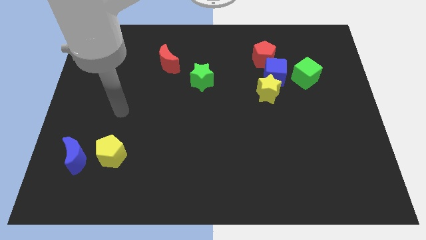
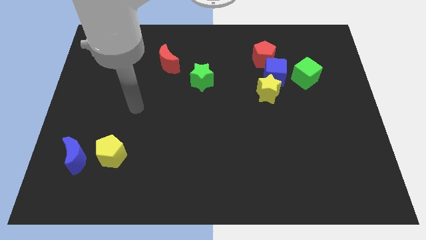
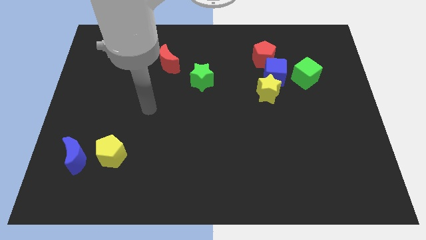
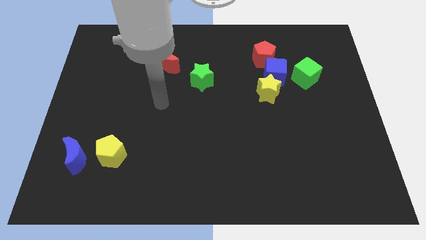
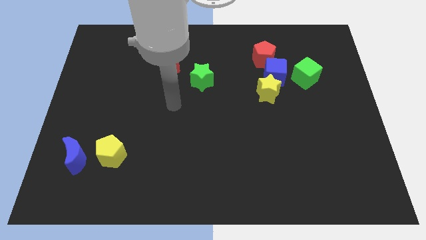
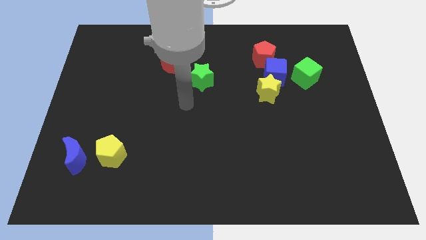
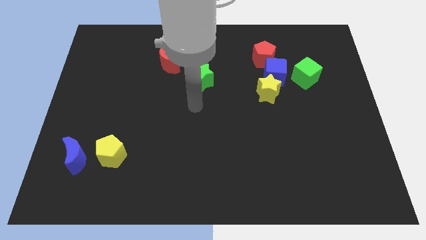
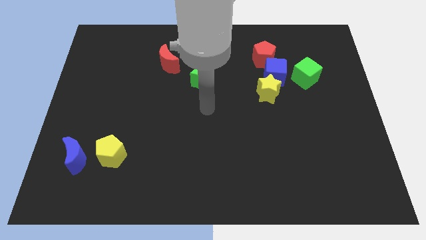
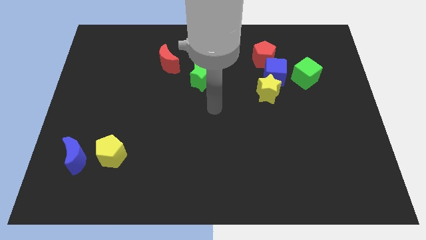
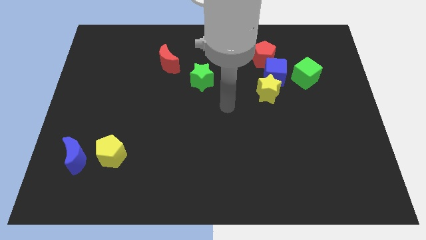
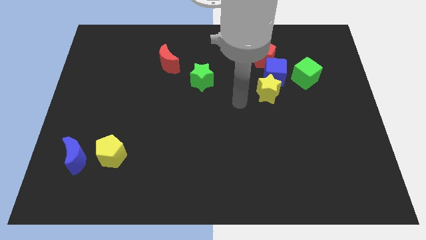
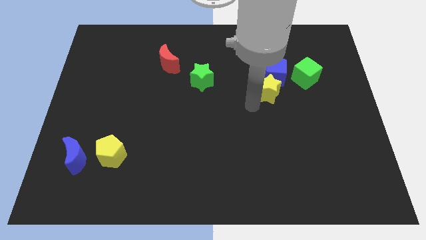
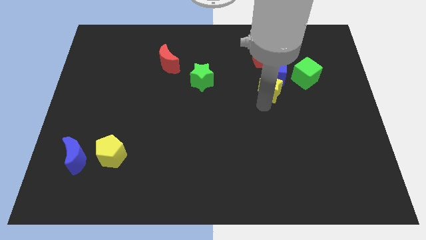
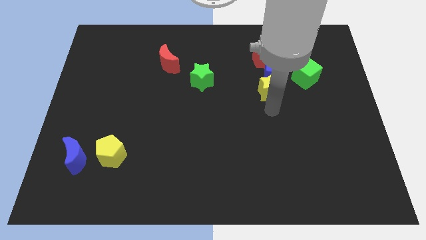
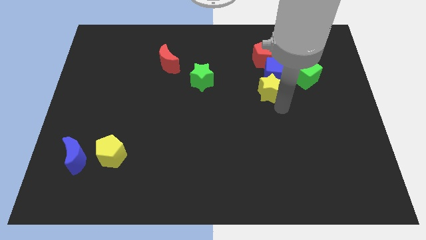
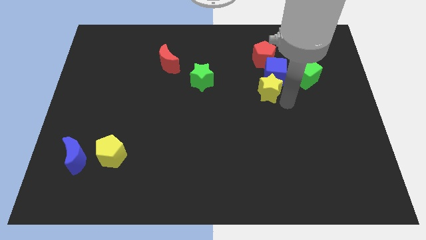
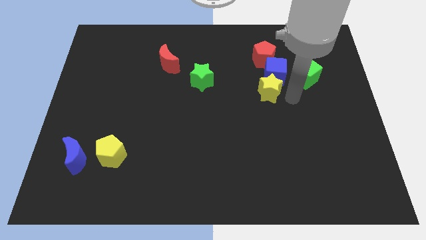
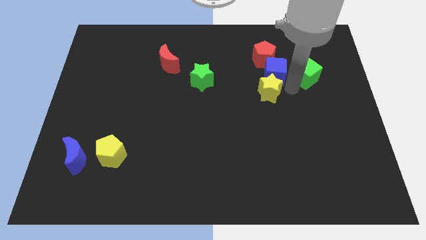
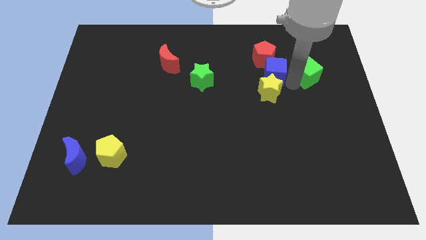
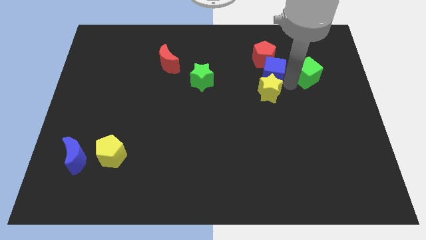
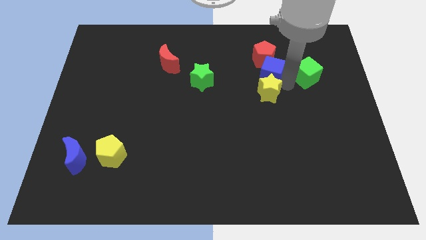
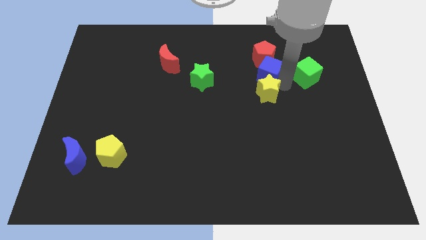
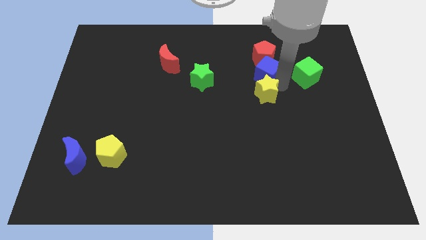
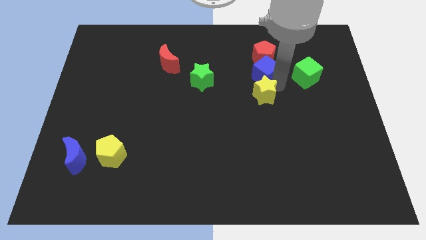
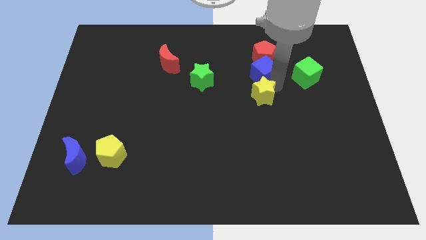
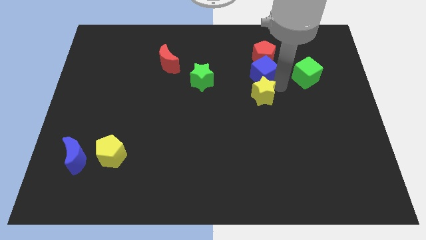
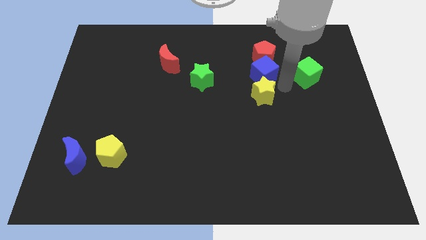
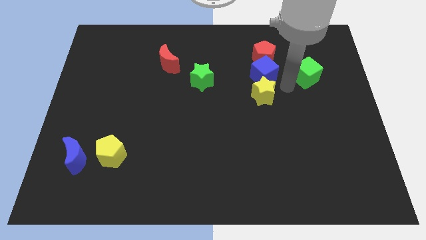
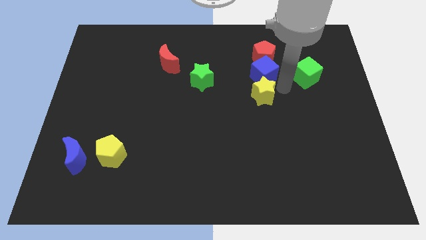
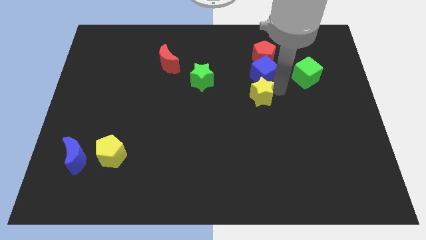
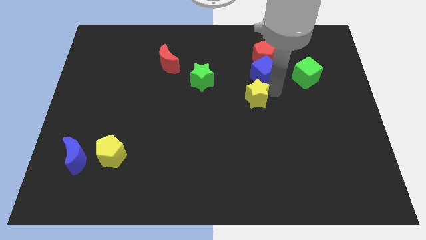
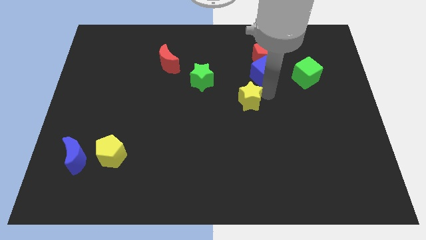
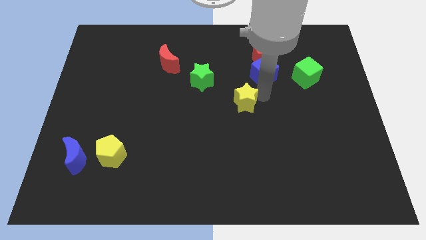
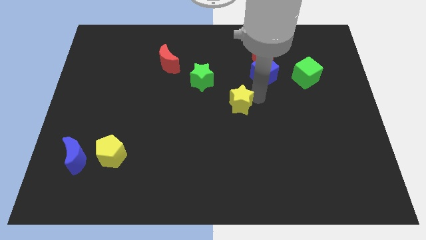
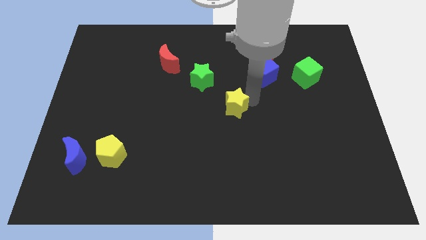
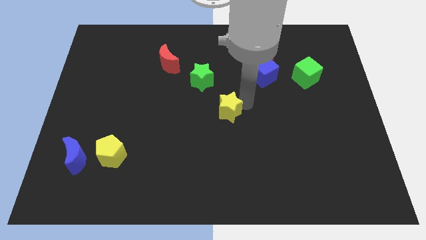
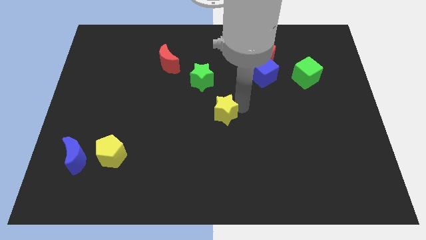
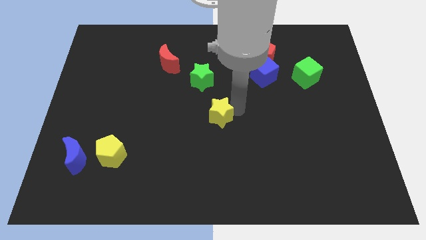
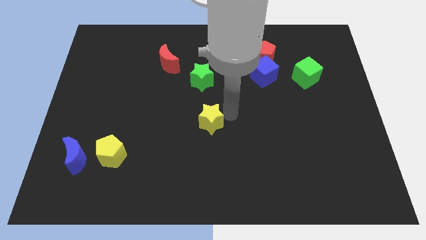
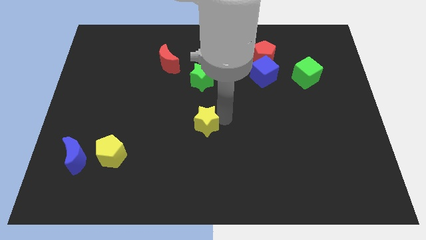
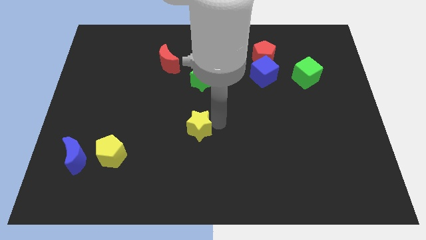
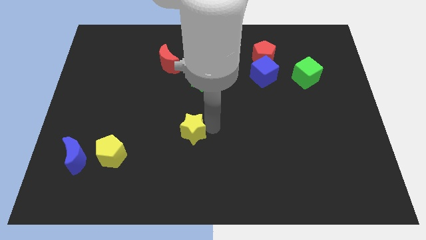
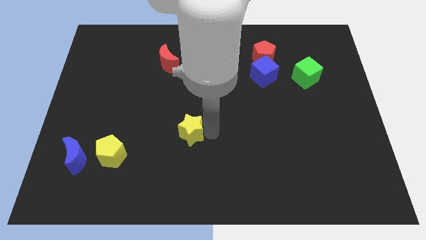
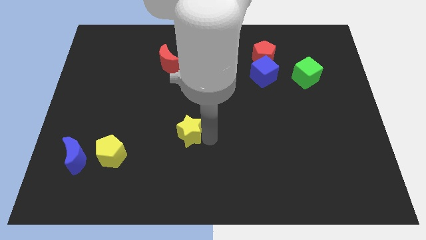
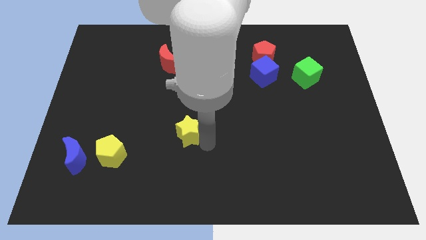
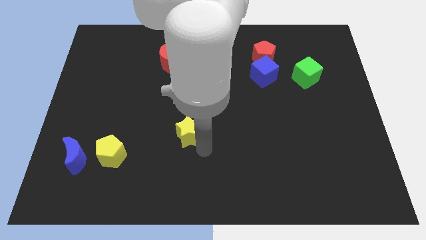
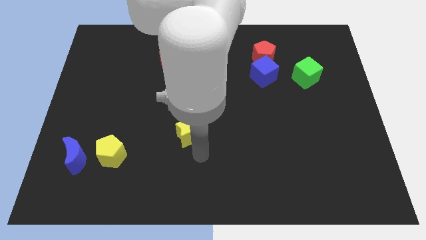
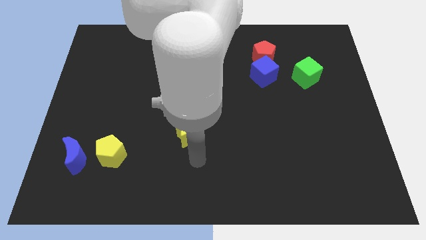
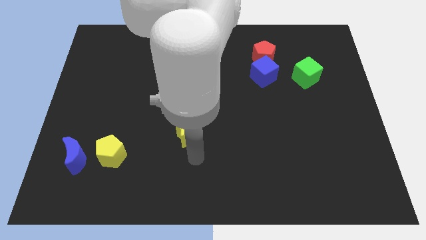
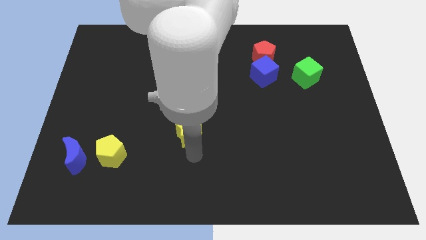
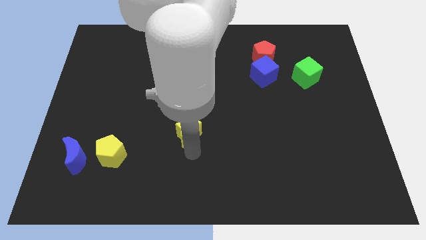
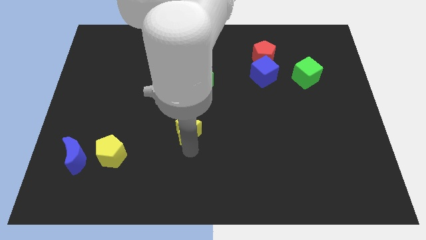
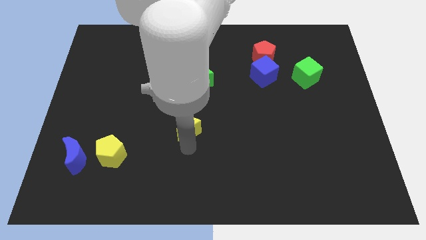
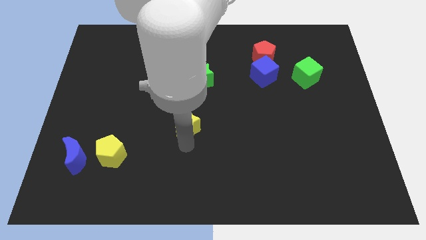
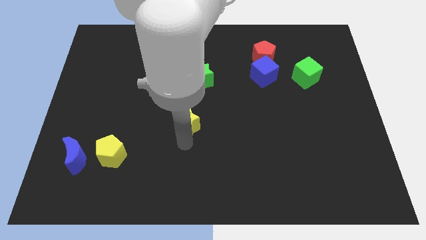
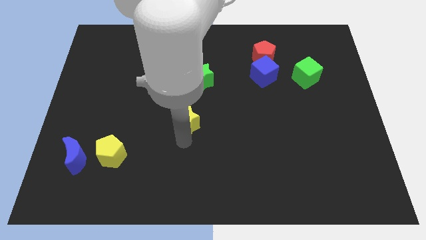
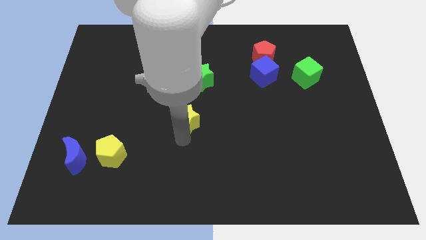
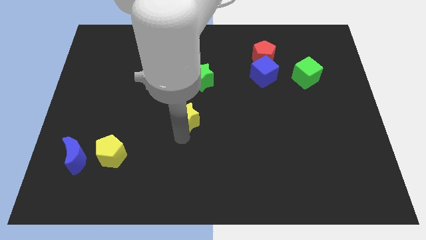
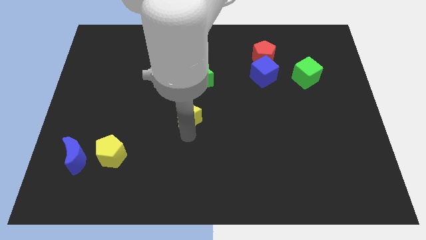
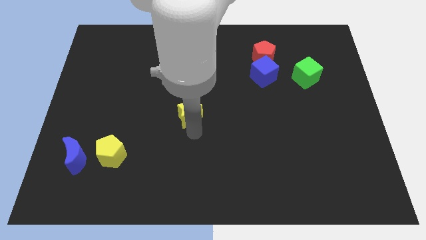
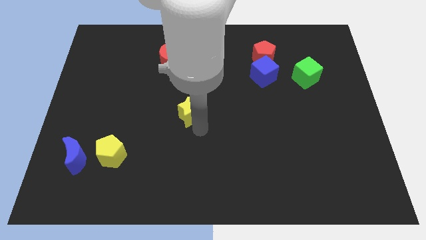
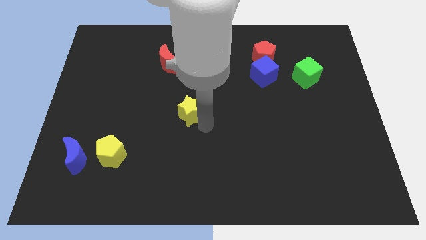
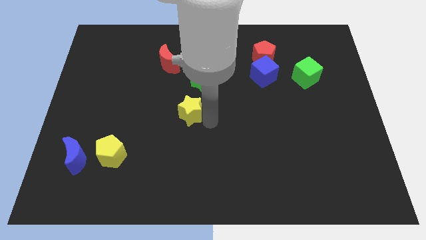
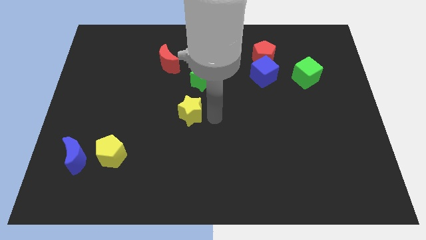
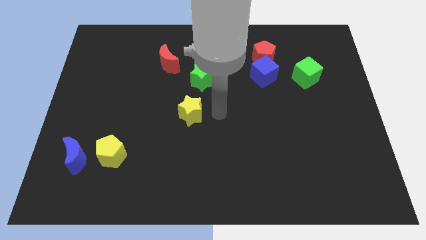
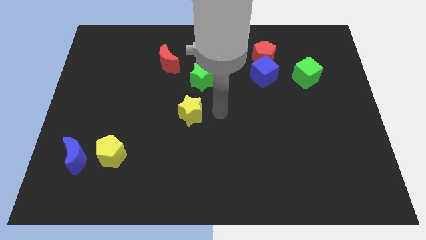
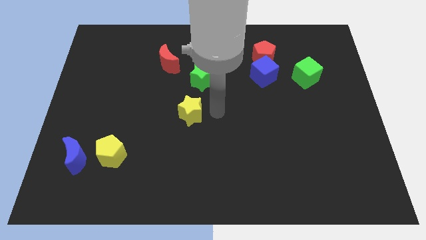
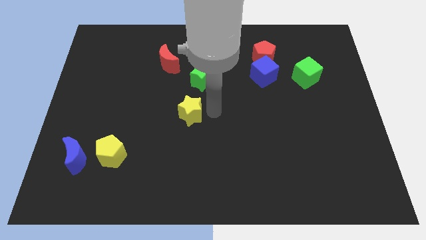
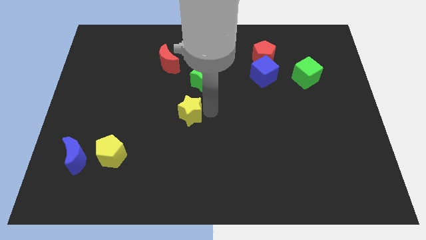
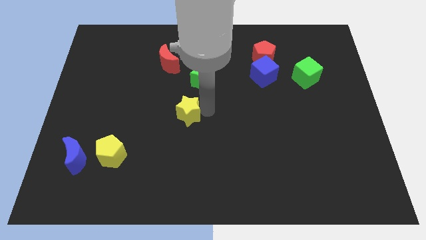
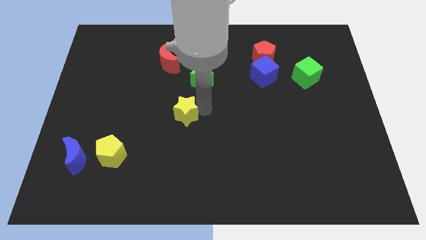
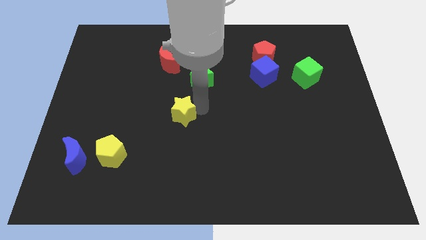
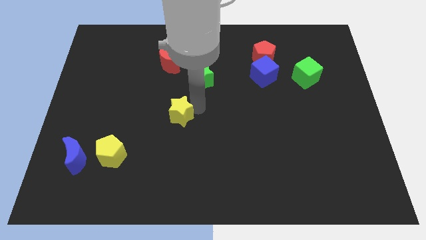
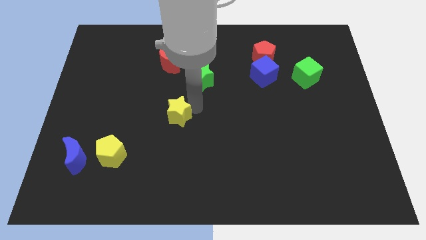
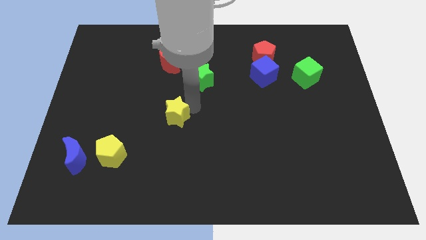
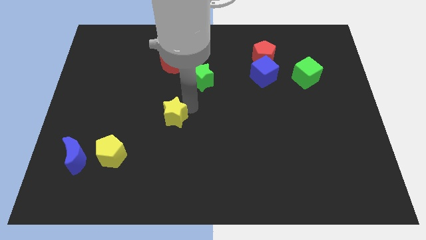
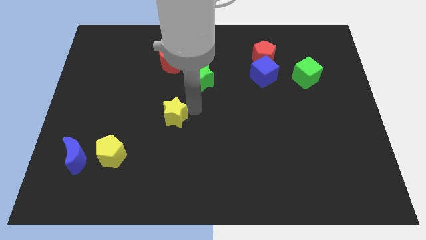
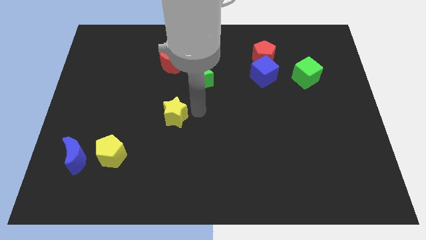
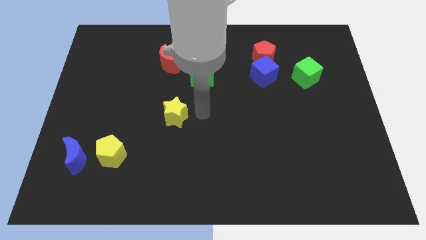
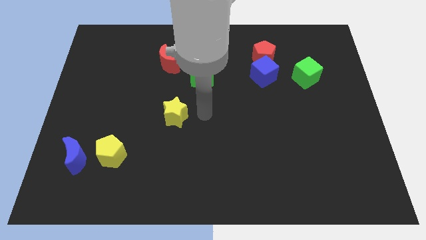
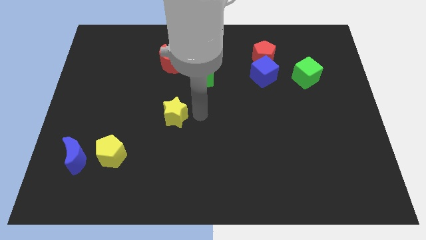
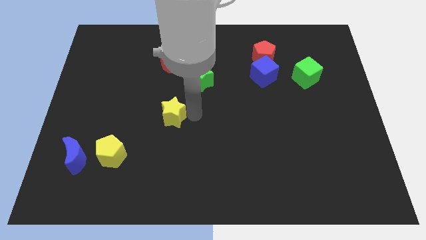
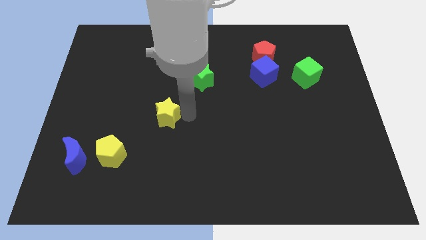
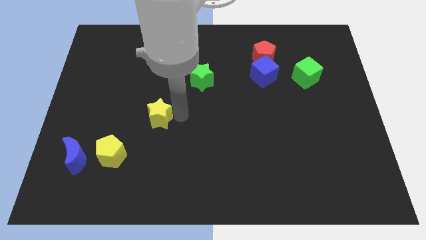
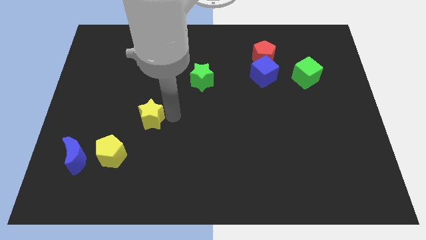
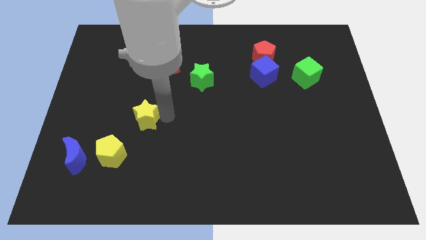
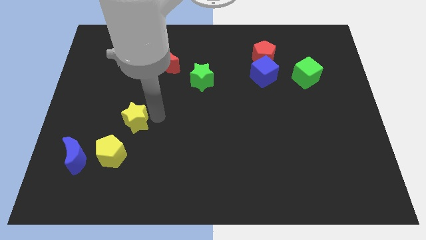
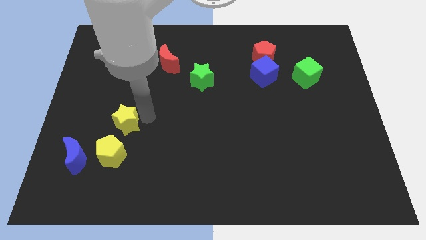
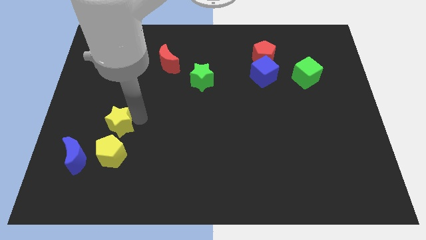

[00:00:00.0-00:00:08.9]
push the yellow star to the top right side of the blue moon
